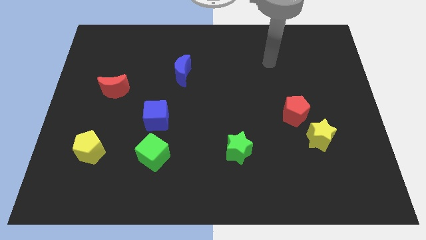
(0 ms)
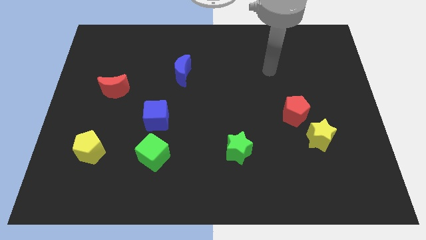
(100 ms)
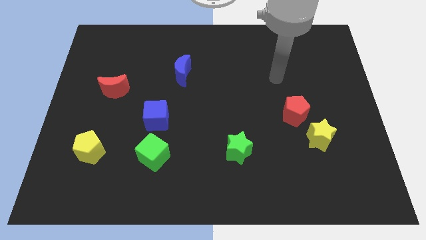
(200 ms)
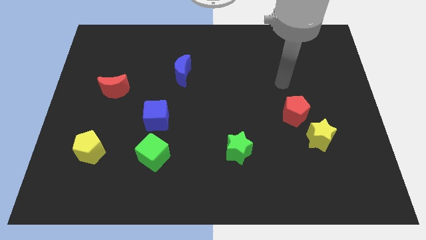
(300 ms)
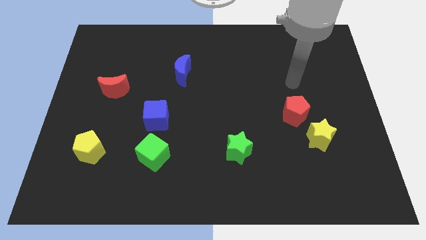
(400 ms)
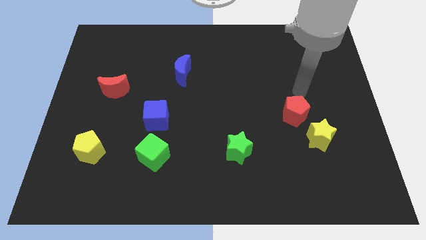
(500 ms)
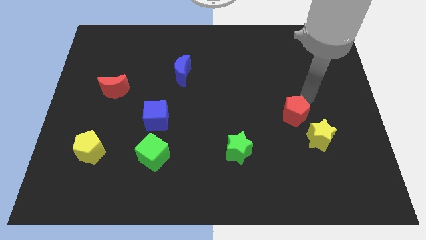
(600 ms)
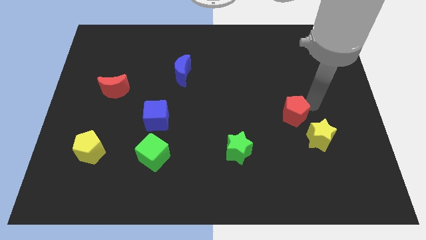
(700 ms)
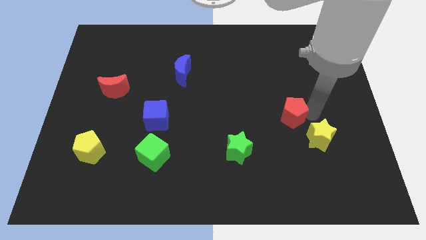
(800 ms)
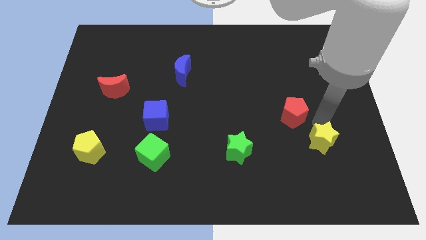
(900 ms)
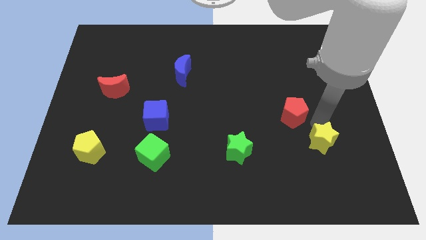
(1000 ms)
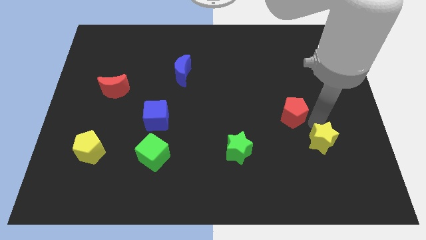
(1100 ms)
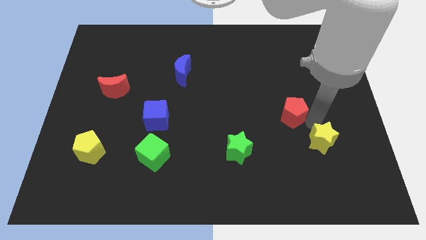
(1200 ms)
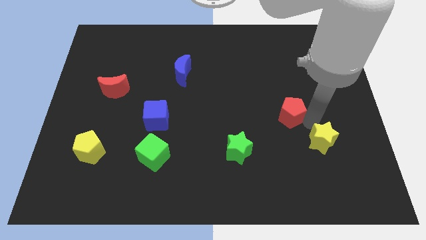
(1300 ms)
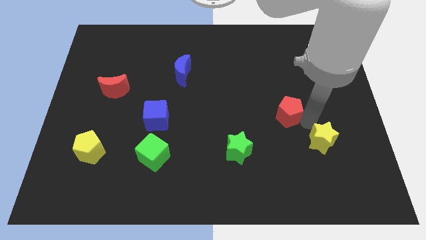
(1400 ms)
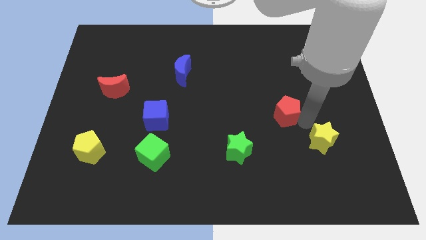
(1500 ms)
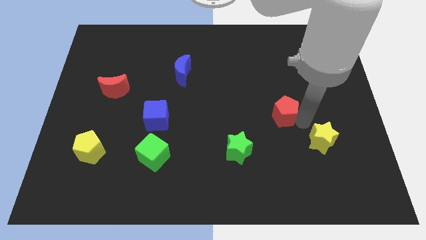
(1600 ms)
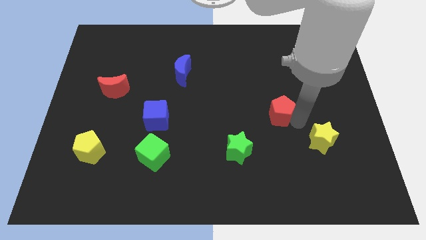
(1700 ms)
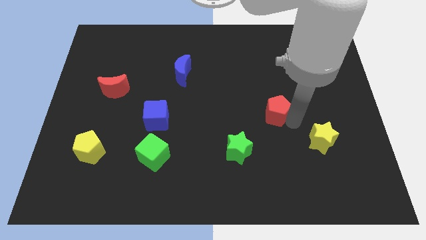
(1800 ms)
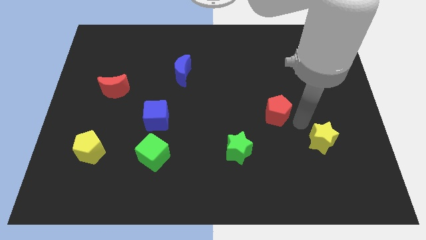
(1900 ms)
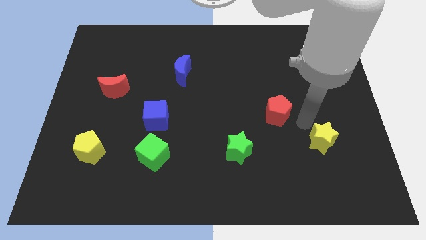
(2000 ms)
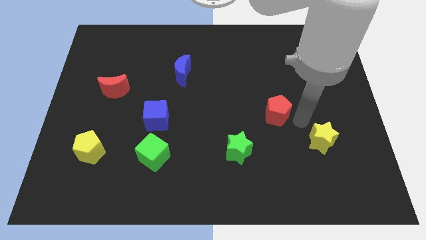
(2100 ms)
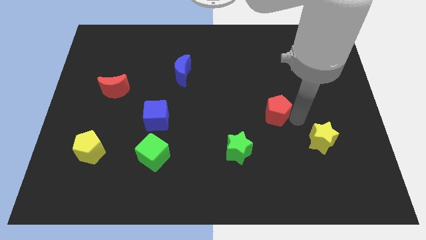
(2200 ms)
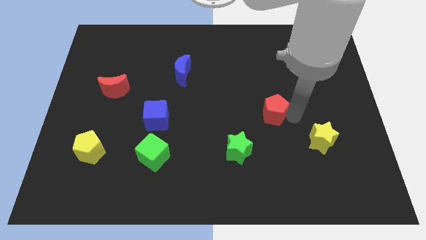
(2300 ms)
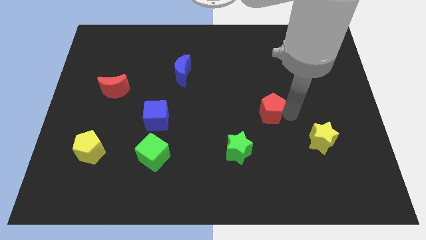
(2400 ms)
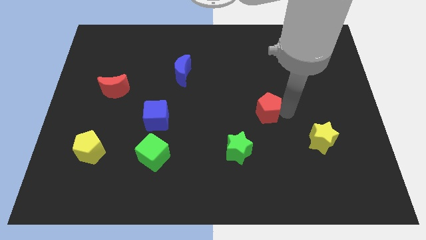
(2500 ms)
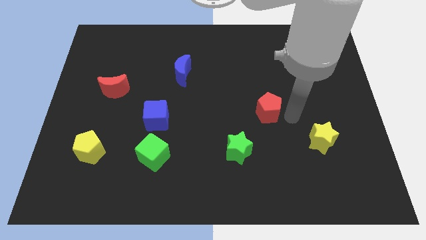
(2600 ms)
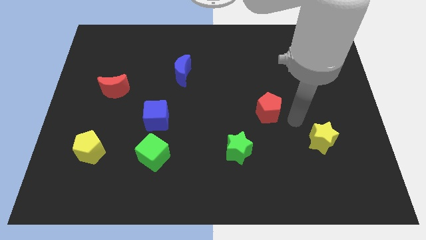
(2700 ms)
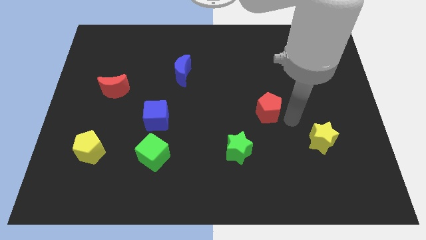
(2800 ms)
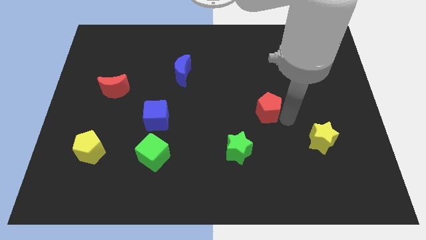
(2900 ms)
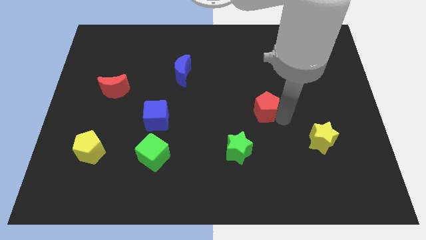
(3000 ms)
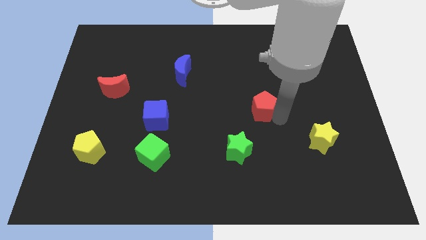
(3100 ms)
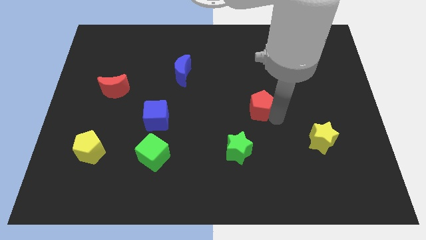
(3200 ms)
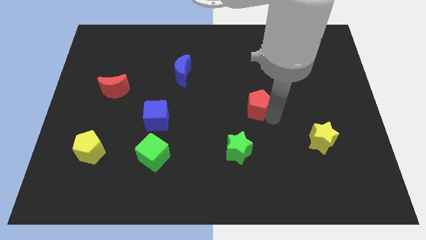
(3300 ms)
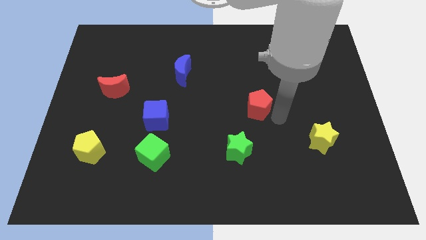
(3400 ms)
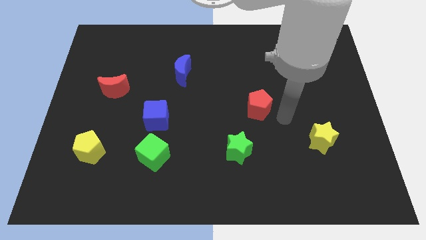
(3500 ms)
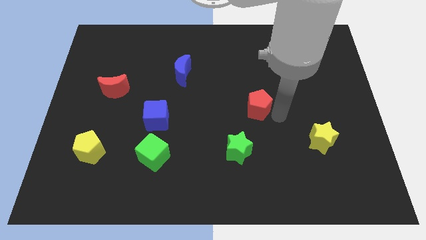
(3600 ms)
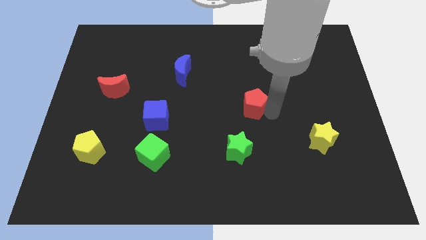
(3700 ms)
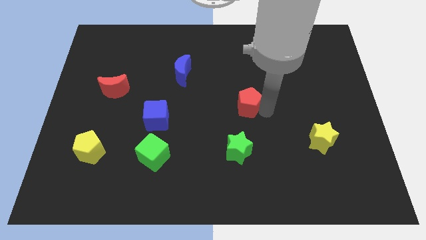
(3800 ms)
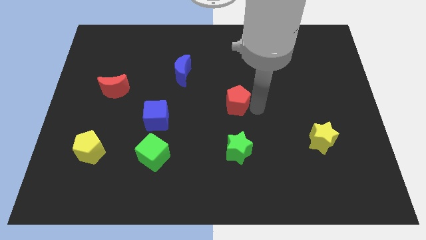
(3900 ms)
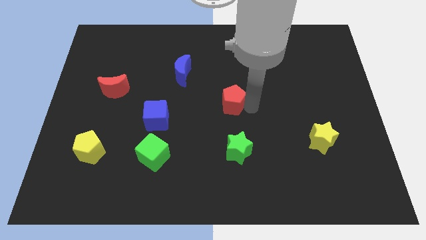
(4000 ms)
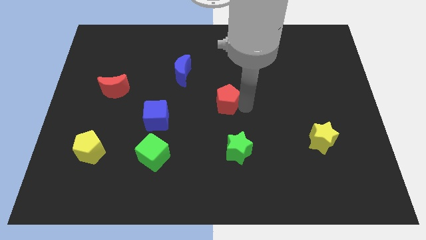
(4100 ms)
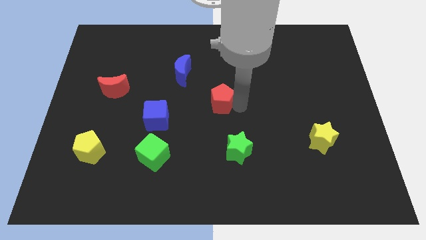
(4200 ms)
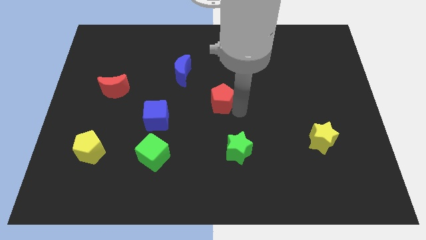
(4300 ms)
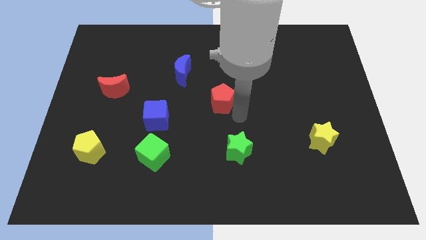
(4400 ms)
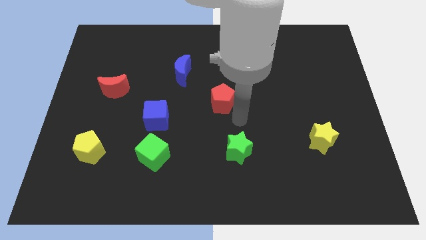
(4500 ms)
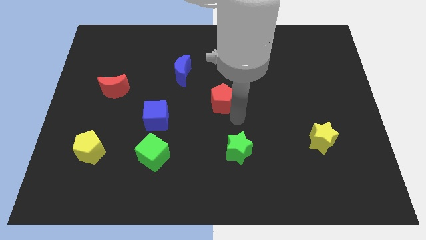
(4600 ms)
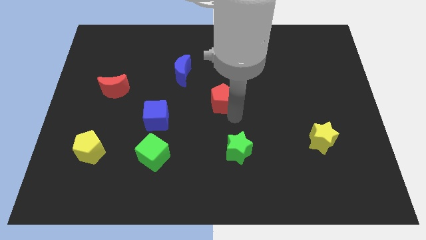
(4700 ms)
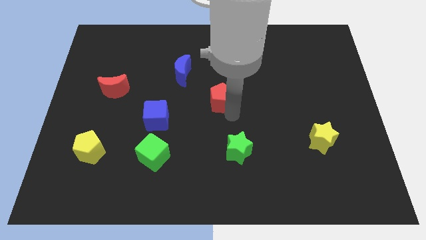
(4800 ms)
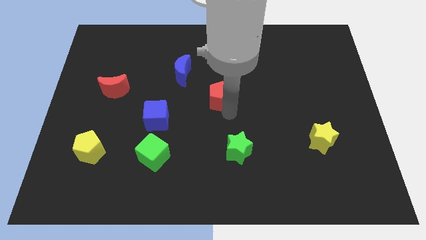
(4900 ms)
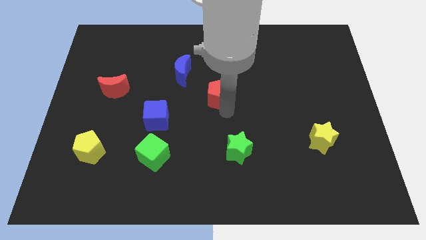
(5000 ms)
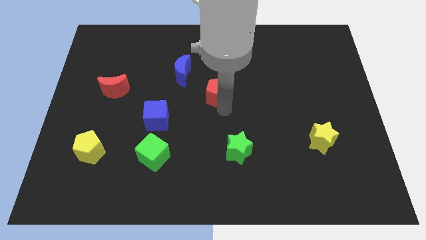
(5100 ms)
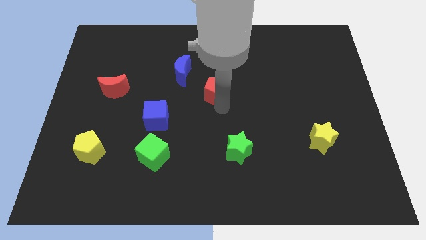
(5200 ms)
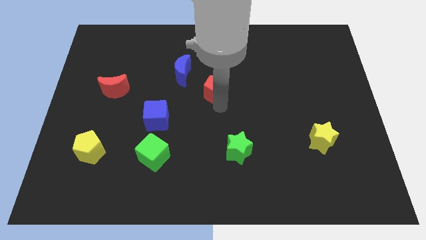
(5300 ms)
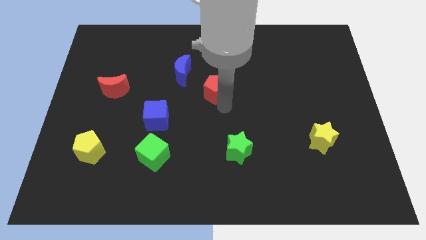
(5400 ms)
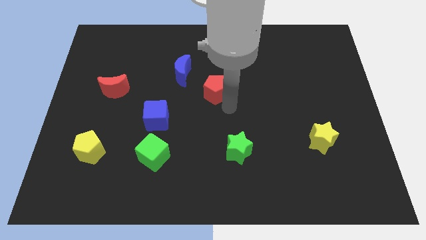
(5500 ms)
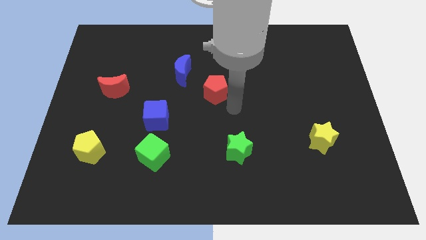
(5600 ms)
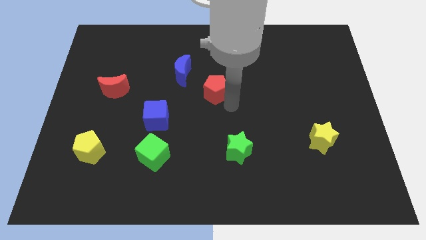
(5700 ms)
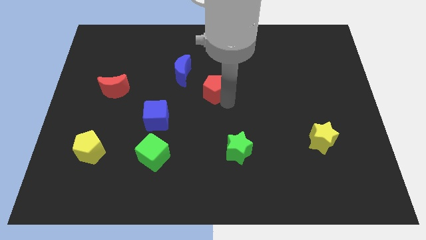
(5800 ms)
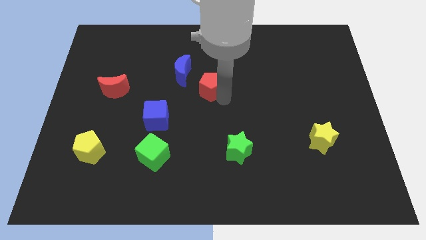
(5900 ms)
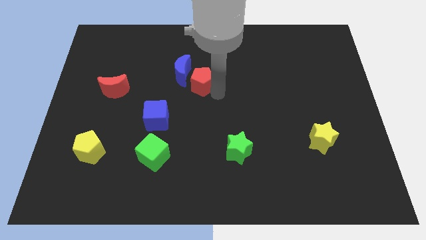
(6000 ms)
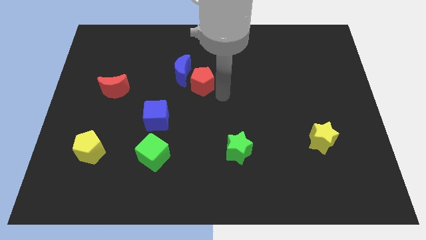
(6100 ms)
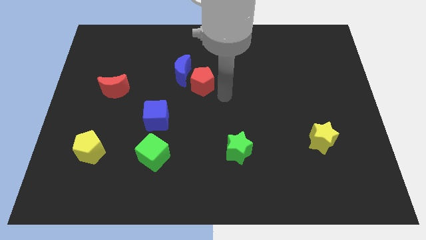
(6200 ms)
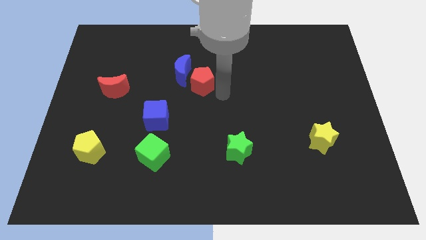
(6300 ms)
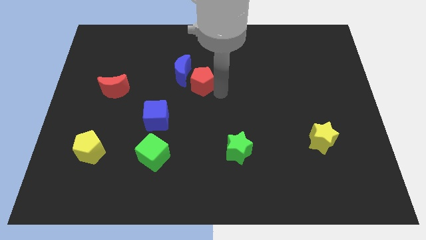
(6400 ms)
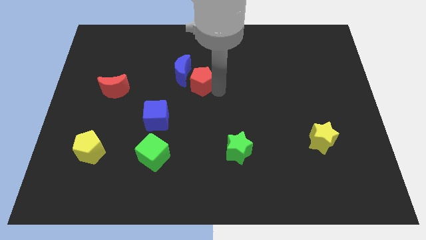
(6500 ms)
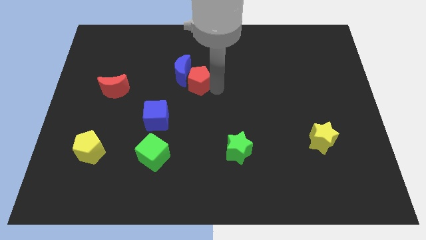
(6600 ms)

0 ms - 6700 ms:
move the red pentagon next to the blue moon

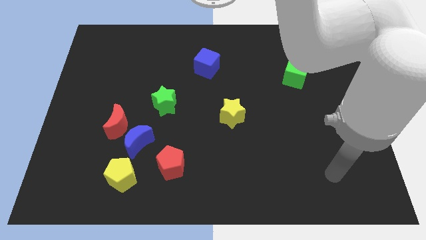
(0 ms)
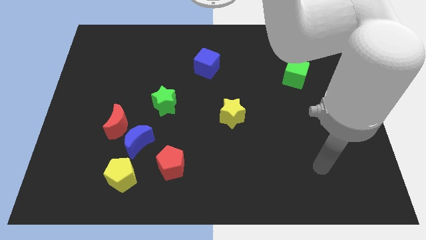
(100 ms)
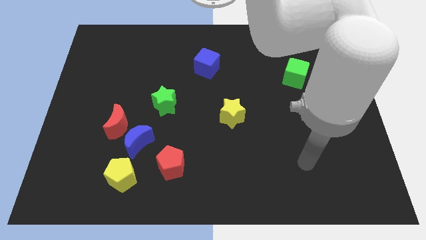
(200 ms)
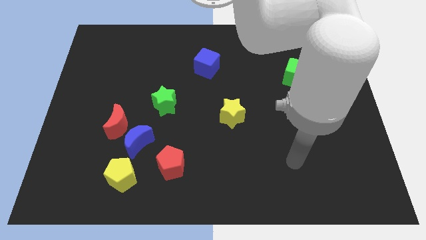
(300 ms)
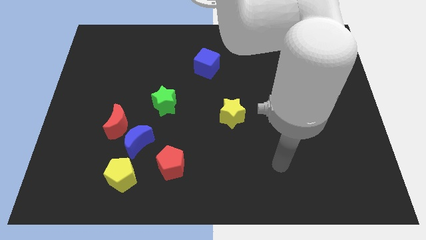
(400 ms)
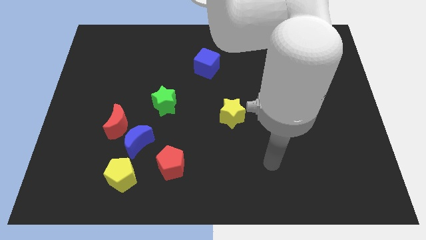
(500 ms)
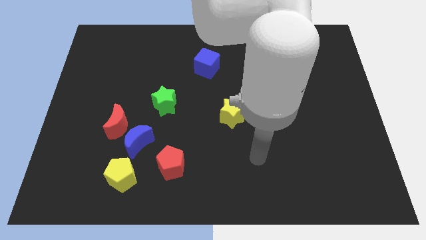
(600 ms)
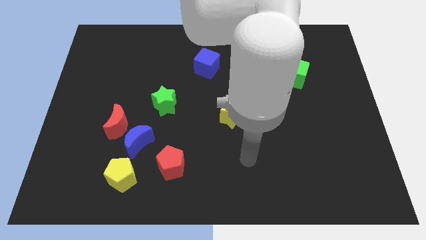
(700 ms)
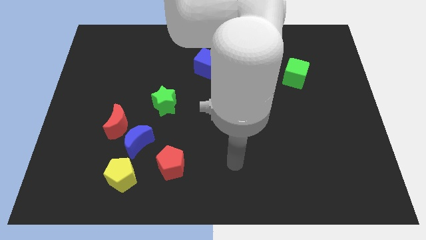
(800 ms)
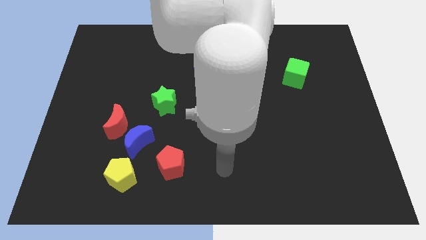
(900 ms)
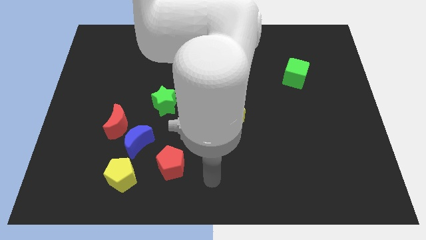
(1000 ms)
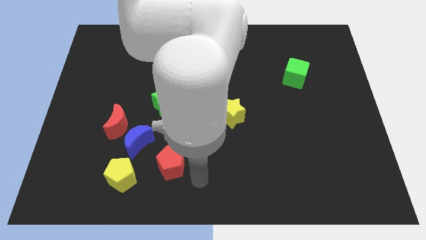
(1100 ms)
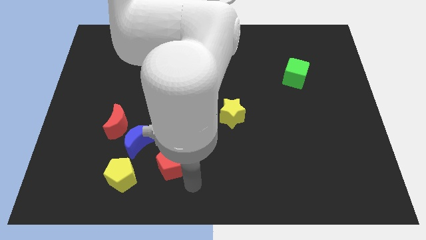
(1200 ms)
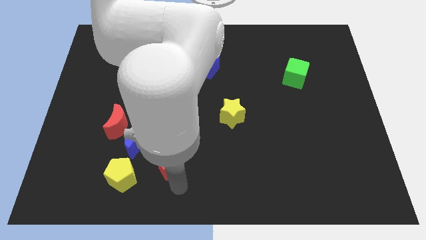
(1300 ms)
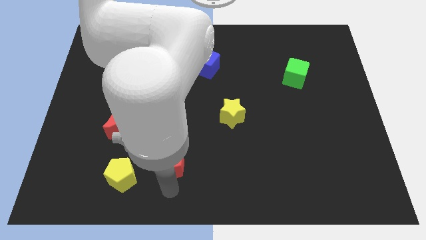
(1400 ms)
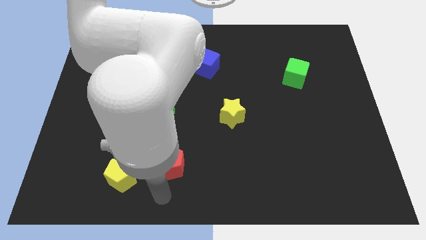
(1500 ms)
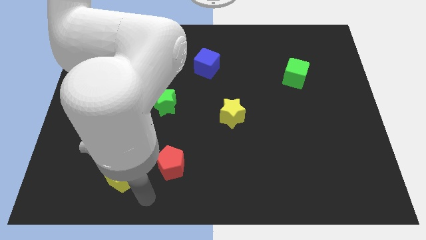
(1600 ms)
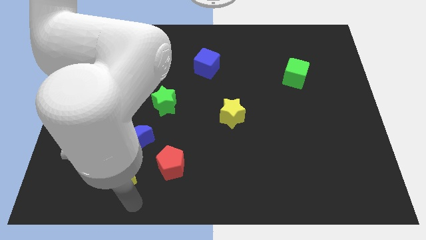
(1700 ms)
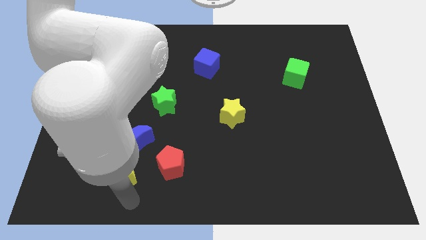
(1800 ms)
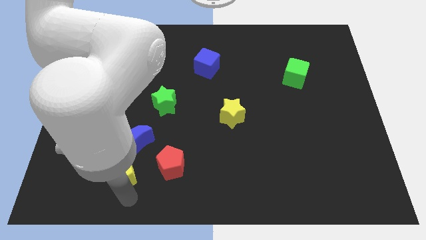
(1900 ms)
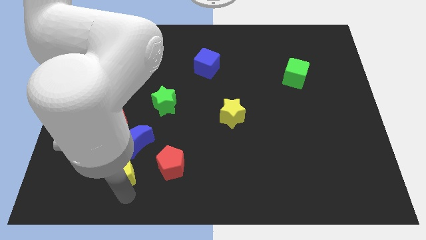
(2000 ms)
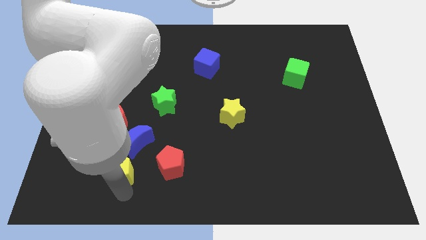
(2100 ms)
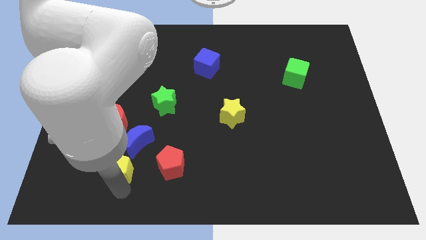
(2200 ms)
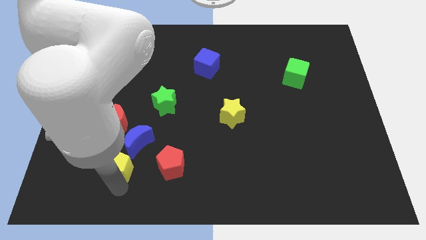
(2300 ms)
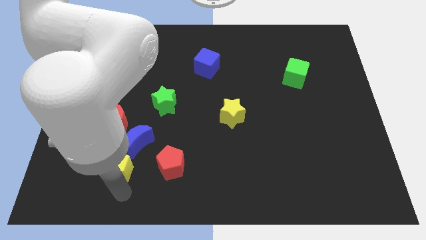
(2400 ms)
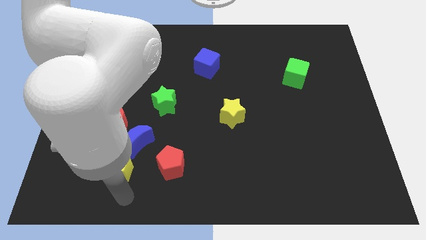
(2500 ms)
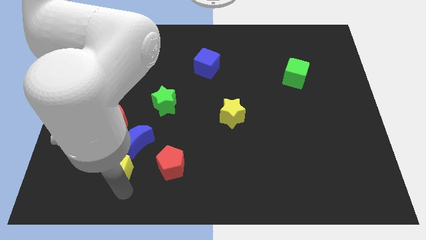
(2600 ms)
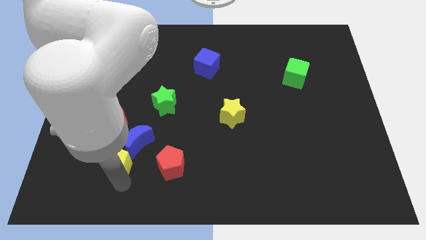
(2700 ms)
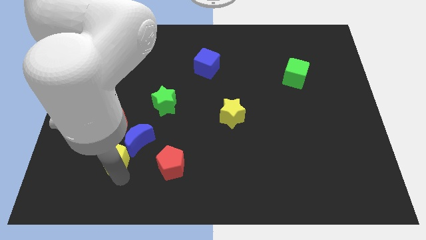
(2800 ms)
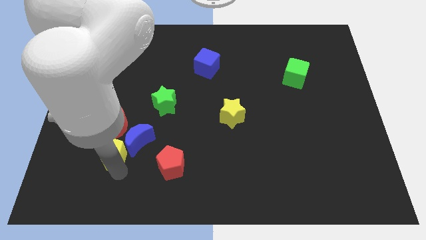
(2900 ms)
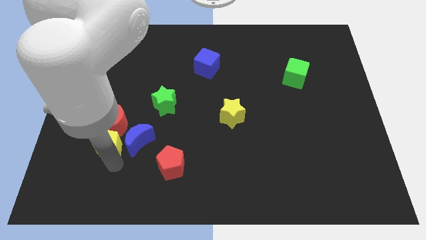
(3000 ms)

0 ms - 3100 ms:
put the yellow pentagon next to the red moon
